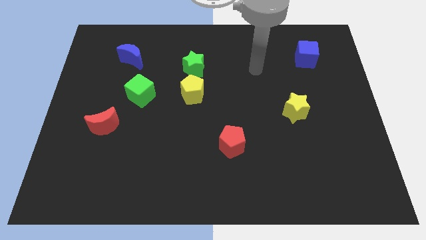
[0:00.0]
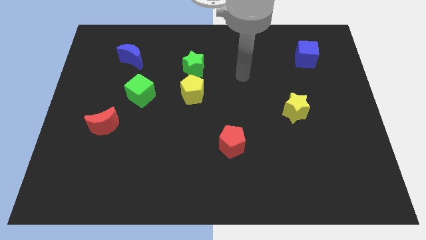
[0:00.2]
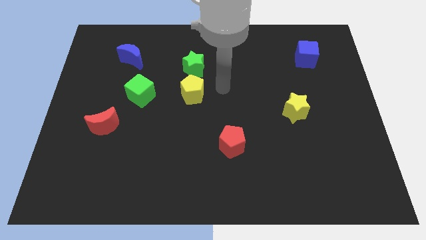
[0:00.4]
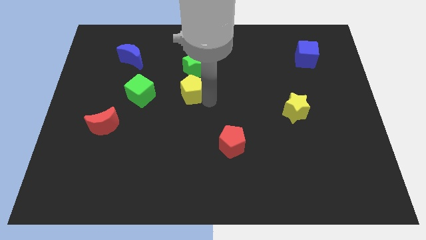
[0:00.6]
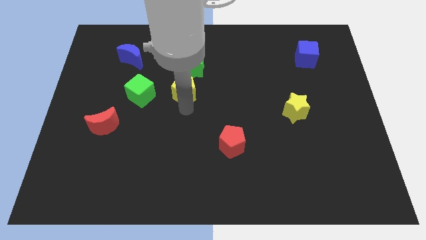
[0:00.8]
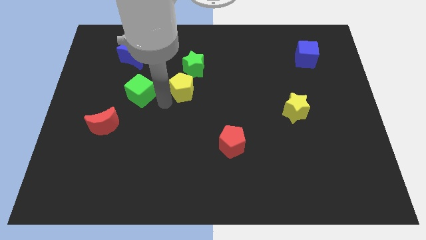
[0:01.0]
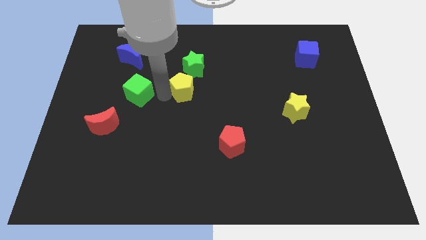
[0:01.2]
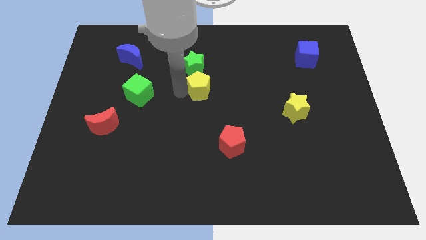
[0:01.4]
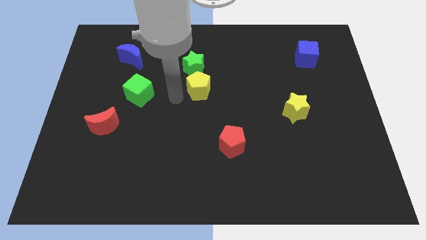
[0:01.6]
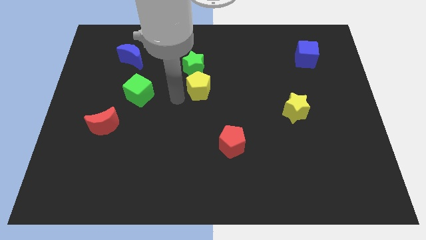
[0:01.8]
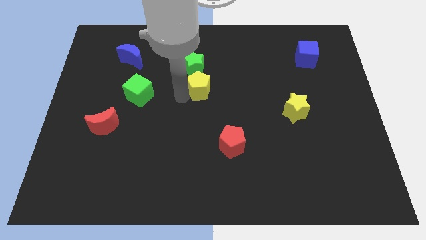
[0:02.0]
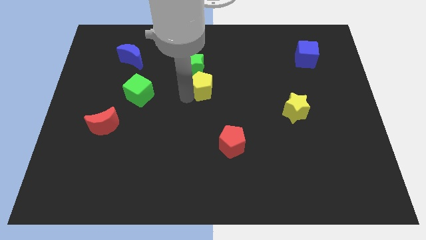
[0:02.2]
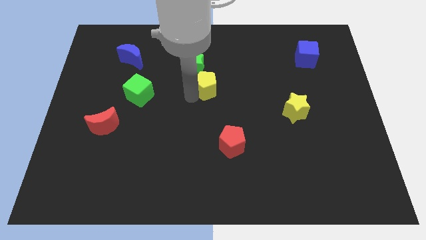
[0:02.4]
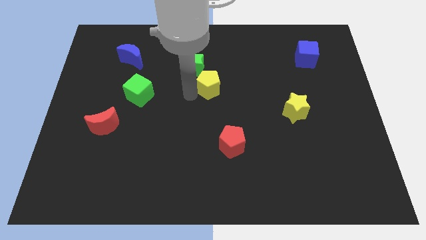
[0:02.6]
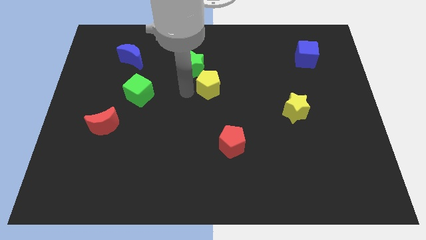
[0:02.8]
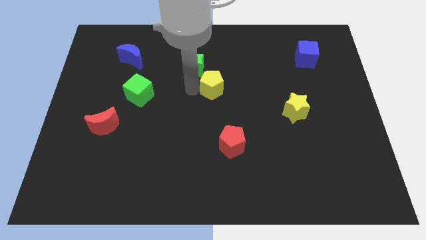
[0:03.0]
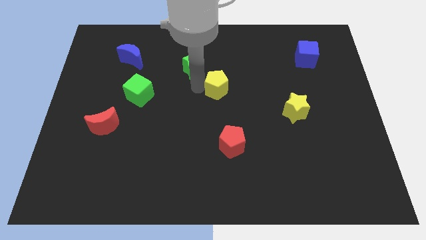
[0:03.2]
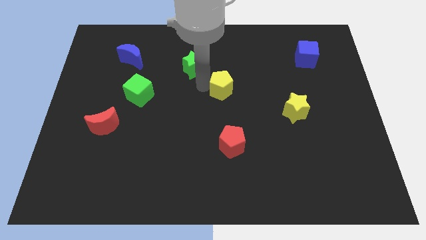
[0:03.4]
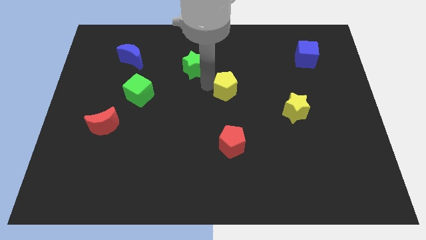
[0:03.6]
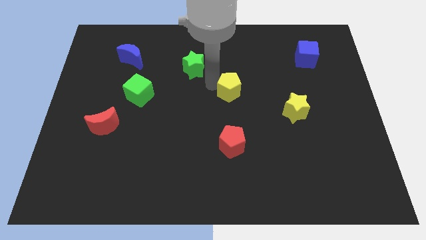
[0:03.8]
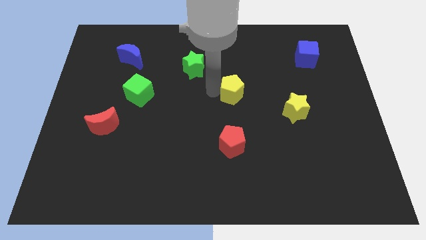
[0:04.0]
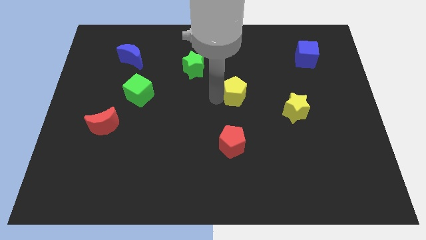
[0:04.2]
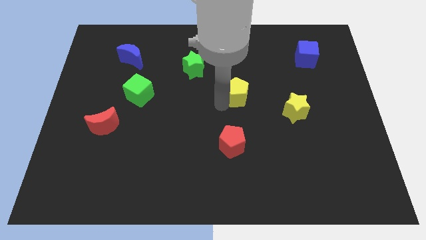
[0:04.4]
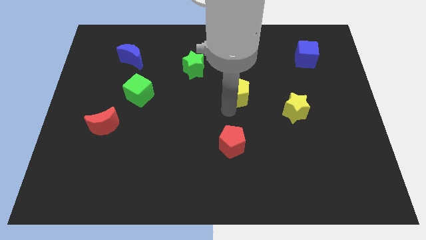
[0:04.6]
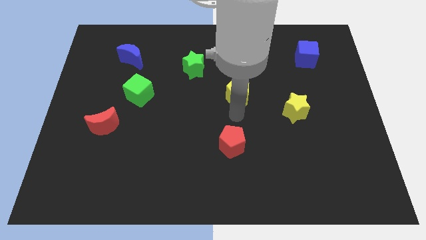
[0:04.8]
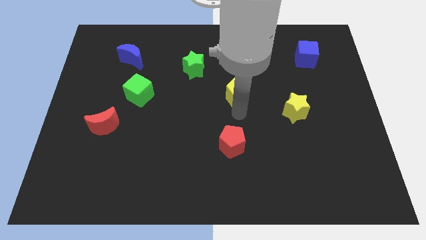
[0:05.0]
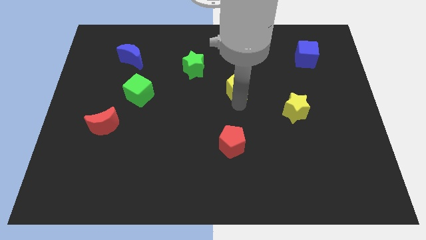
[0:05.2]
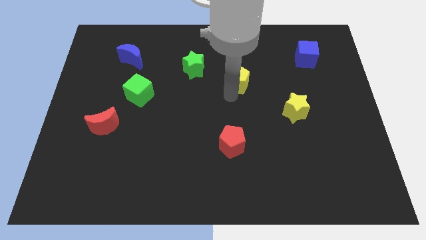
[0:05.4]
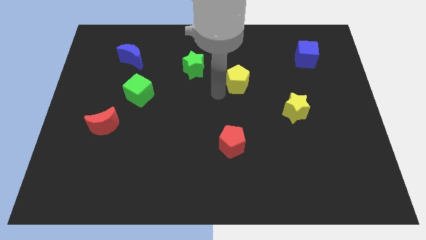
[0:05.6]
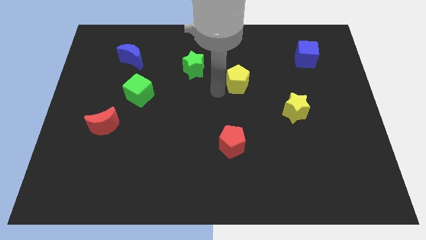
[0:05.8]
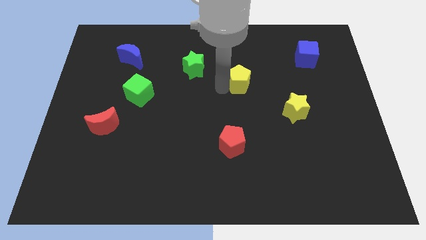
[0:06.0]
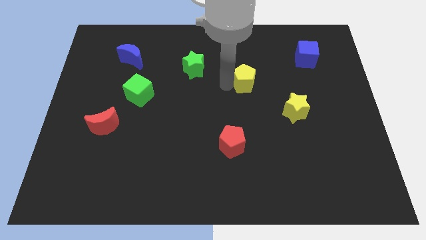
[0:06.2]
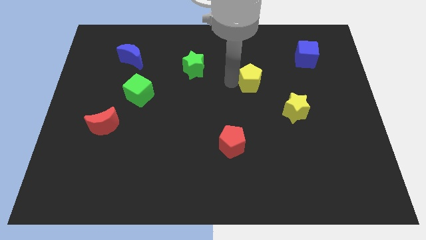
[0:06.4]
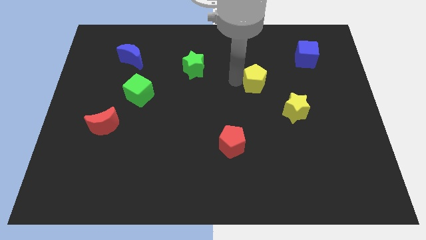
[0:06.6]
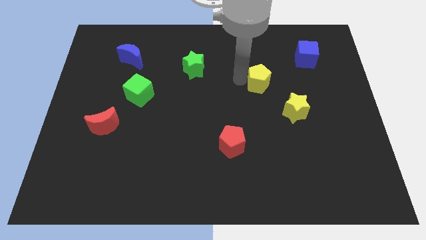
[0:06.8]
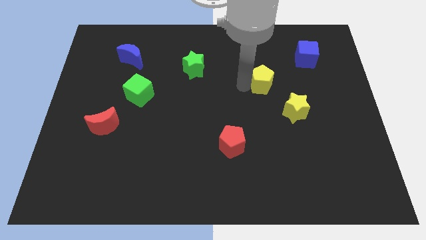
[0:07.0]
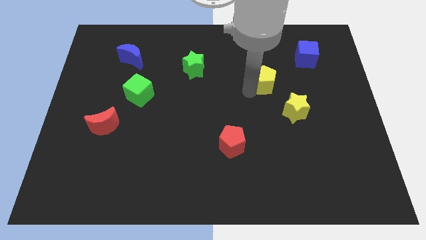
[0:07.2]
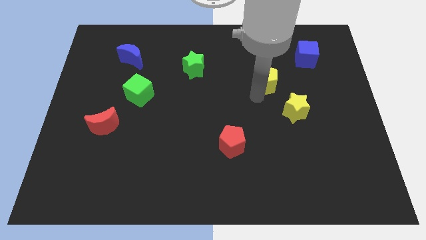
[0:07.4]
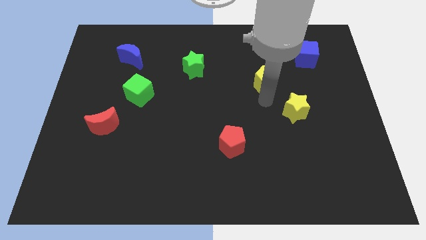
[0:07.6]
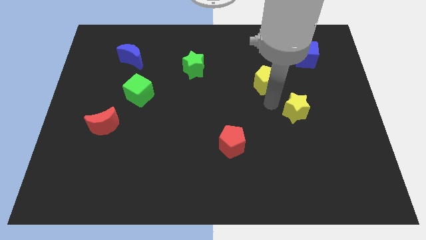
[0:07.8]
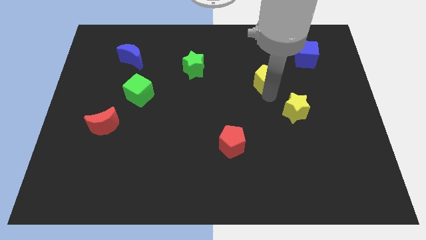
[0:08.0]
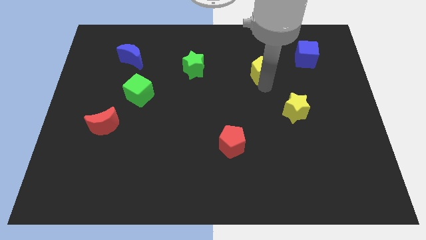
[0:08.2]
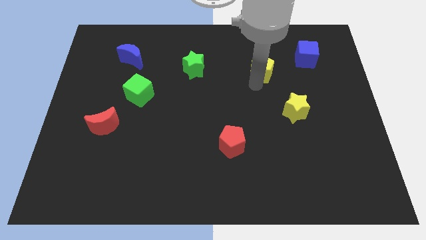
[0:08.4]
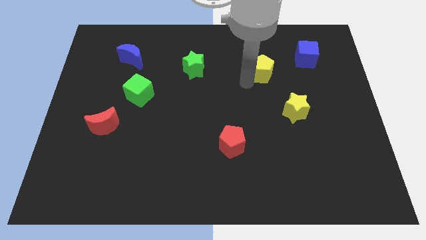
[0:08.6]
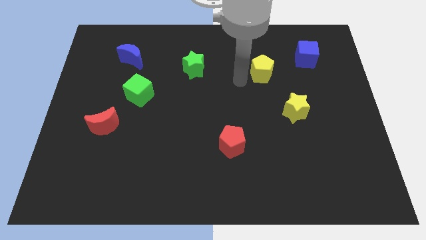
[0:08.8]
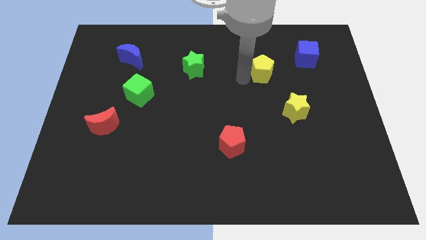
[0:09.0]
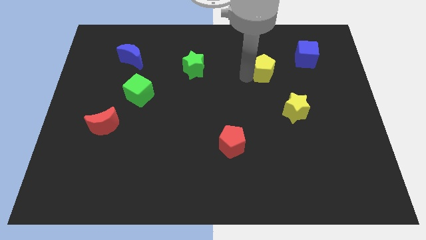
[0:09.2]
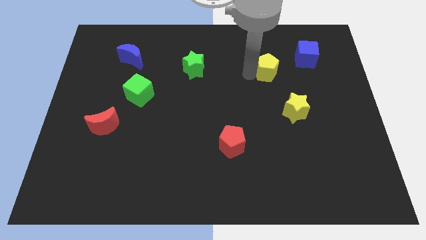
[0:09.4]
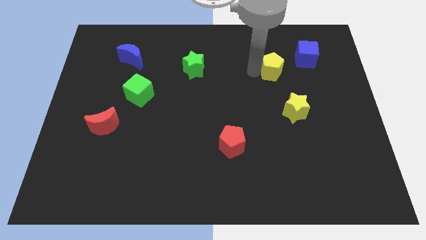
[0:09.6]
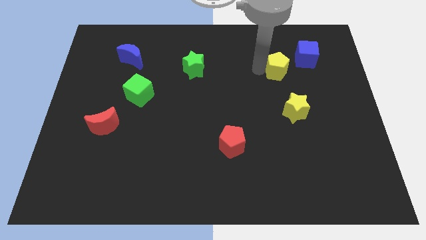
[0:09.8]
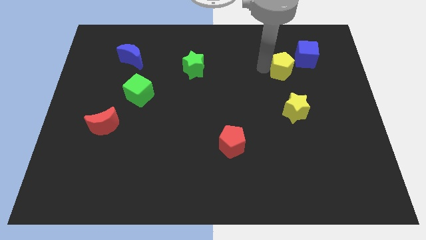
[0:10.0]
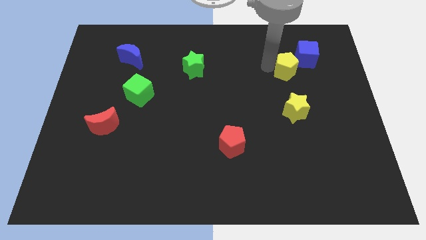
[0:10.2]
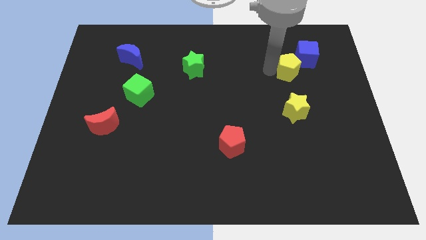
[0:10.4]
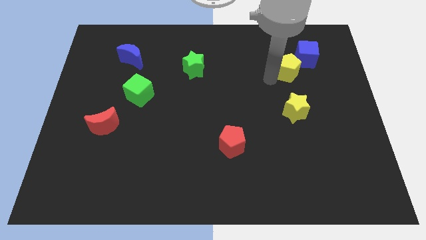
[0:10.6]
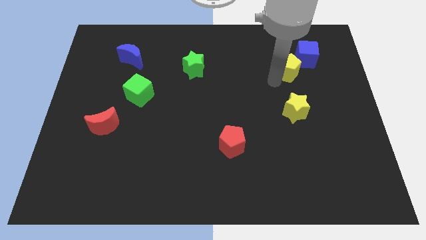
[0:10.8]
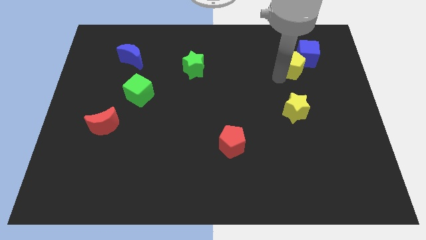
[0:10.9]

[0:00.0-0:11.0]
push the yellow pentagon to the blue cube

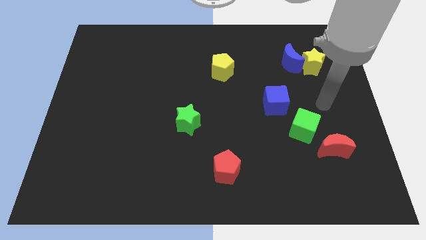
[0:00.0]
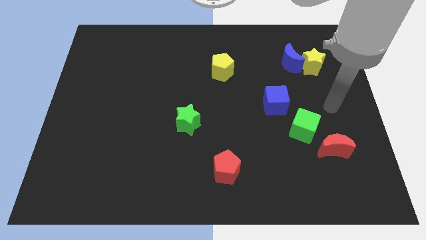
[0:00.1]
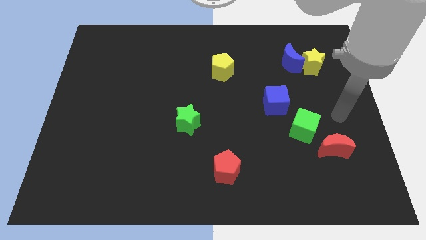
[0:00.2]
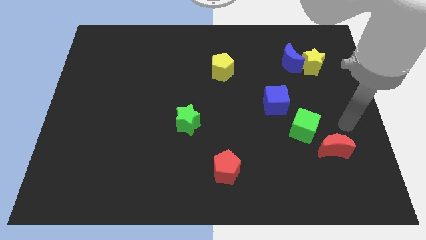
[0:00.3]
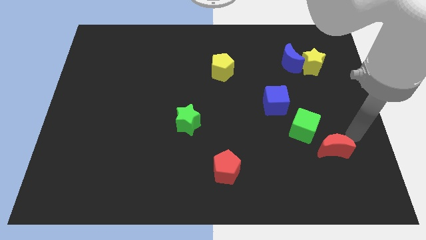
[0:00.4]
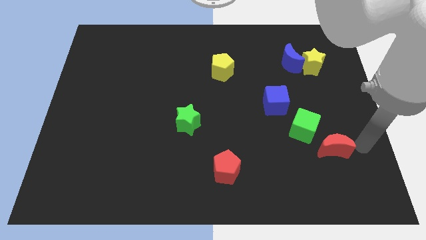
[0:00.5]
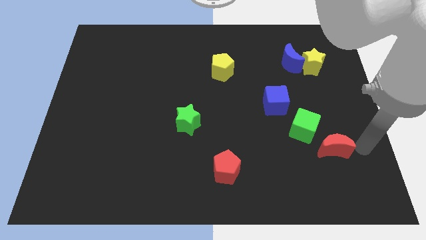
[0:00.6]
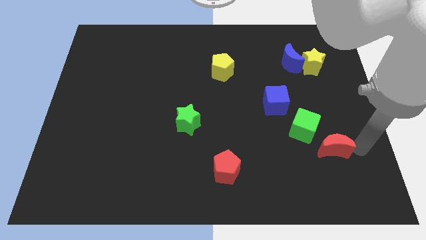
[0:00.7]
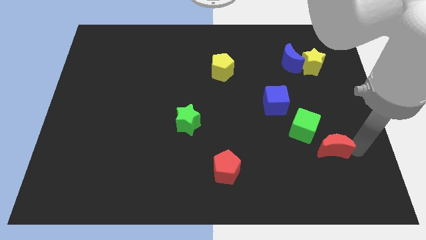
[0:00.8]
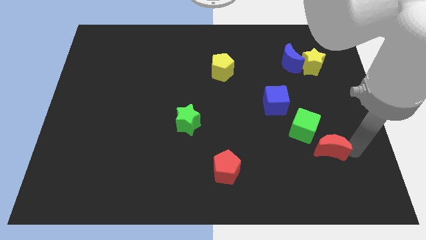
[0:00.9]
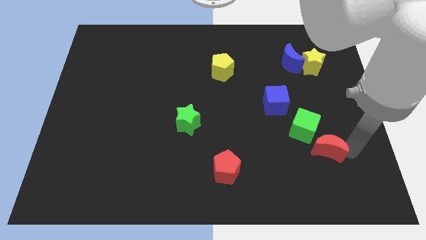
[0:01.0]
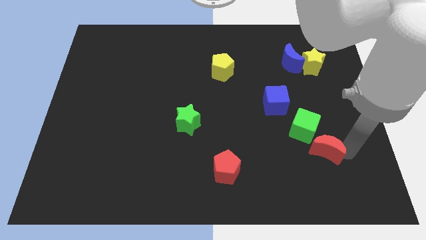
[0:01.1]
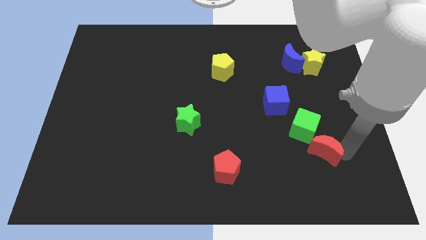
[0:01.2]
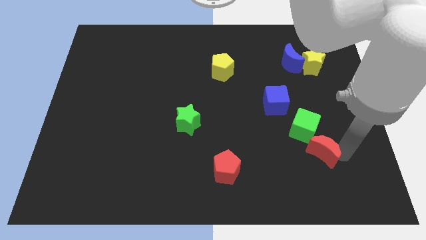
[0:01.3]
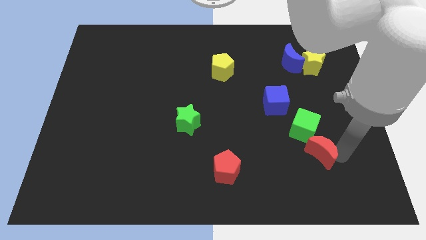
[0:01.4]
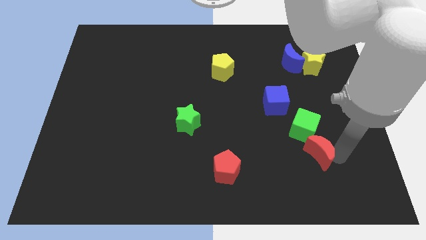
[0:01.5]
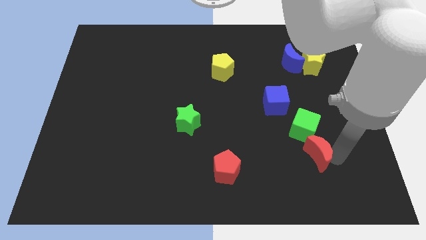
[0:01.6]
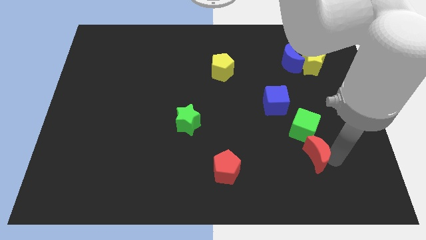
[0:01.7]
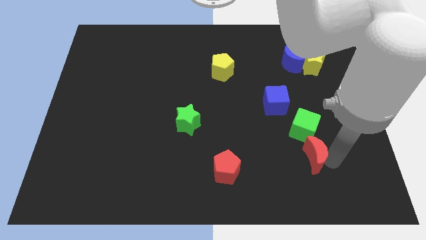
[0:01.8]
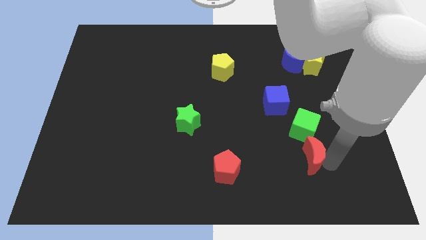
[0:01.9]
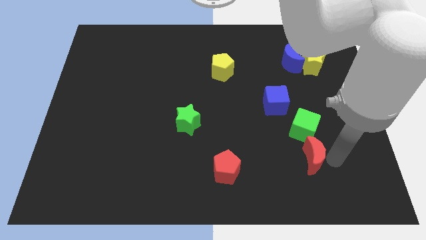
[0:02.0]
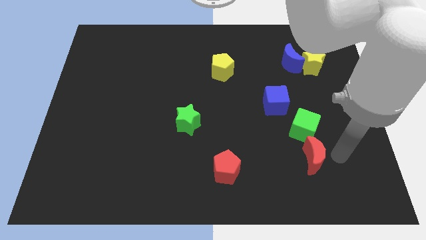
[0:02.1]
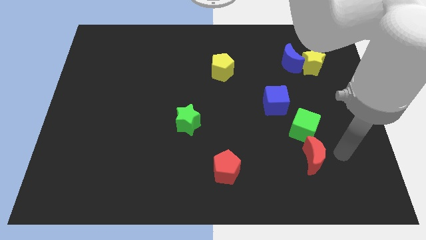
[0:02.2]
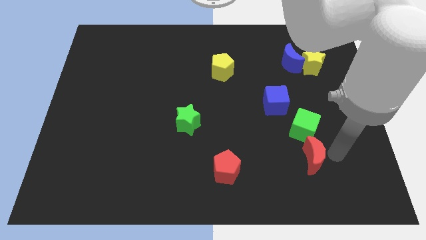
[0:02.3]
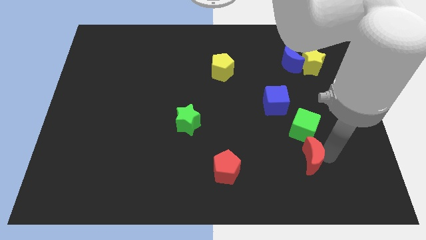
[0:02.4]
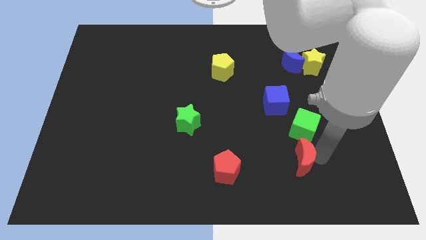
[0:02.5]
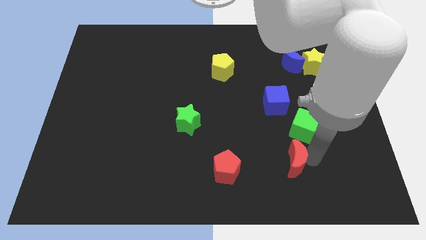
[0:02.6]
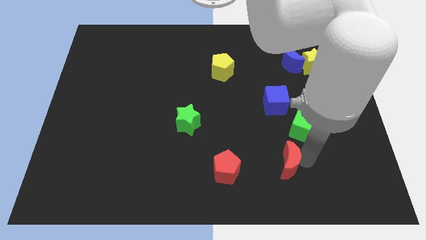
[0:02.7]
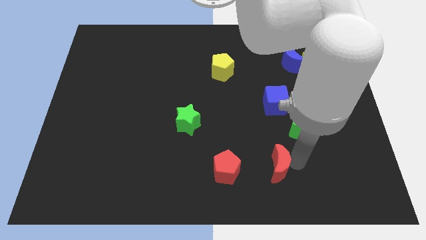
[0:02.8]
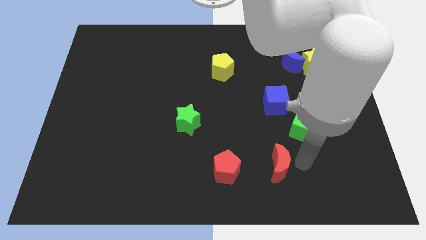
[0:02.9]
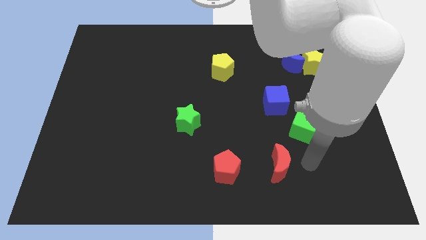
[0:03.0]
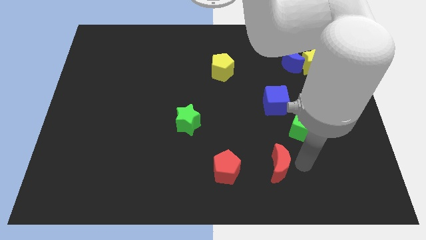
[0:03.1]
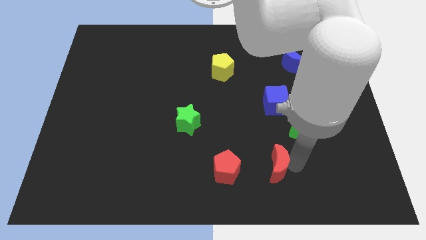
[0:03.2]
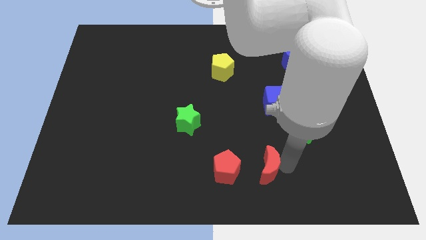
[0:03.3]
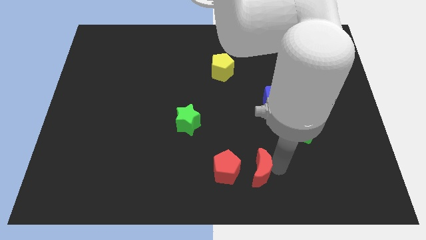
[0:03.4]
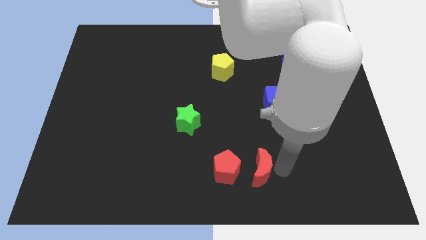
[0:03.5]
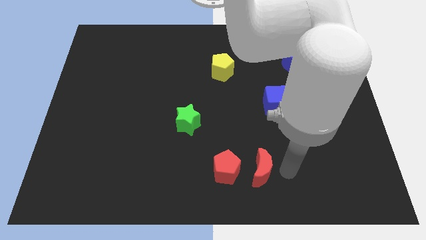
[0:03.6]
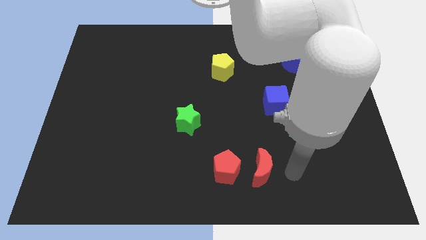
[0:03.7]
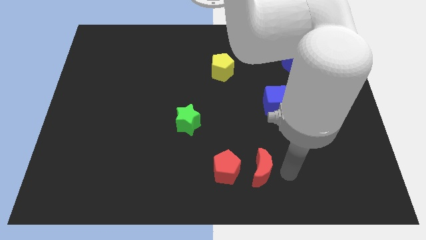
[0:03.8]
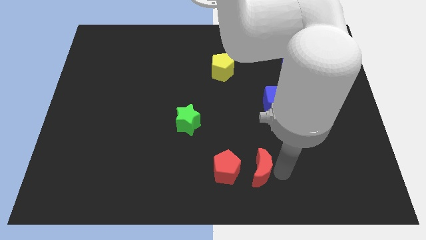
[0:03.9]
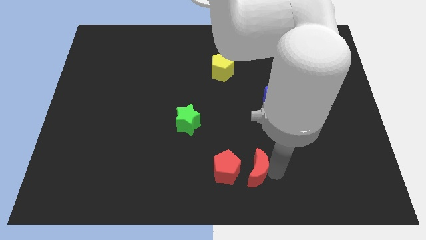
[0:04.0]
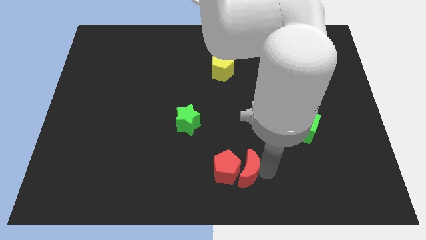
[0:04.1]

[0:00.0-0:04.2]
put the red moon towards the red pentagon
